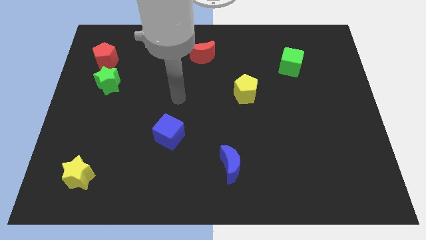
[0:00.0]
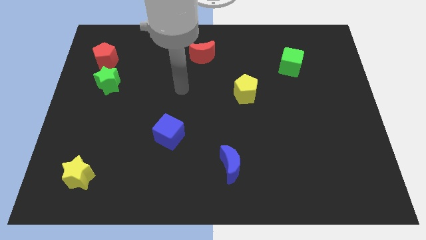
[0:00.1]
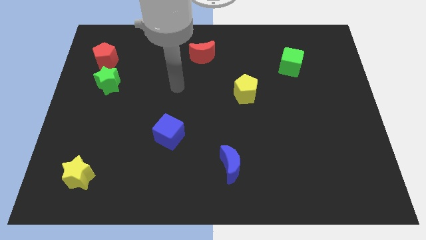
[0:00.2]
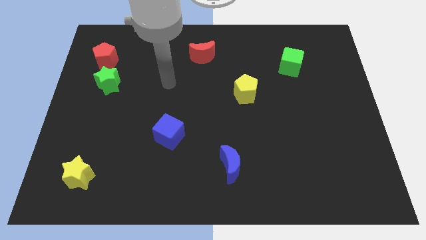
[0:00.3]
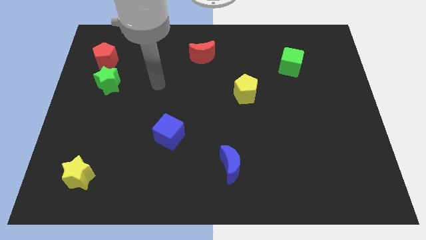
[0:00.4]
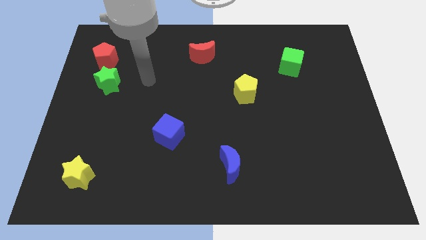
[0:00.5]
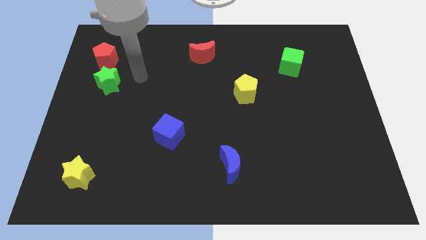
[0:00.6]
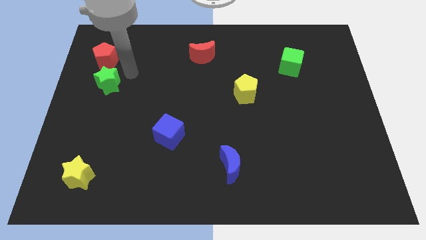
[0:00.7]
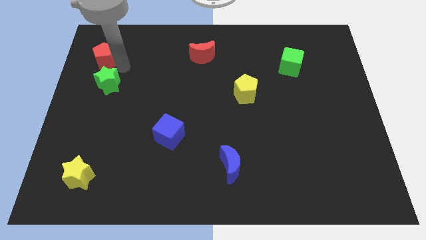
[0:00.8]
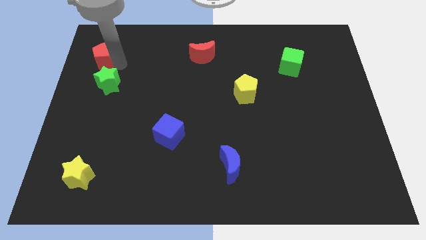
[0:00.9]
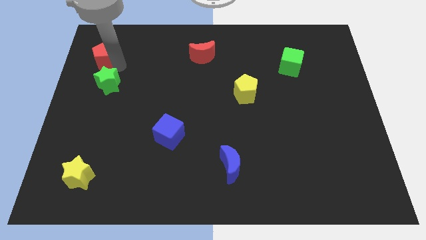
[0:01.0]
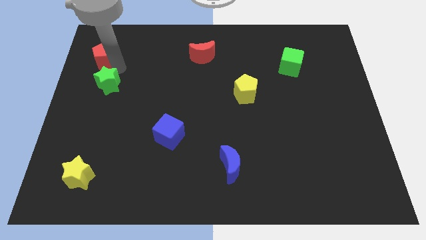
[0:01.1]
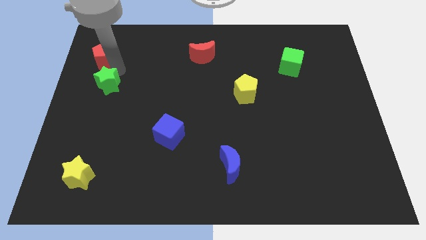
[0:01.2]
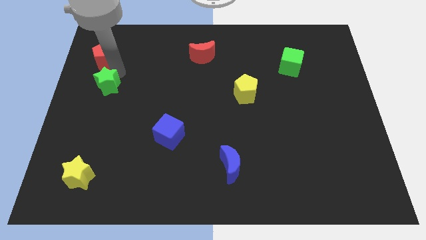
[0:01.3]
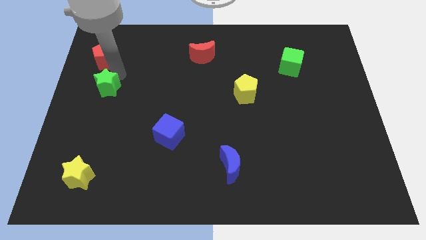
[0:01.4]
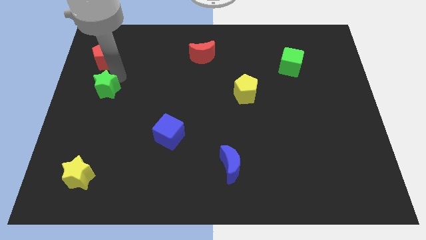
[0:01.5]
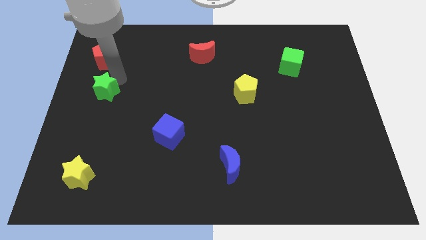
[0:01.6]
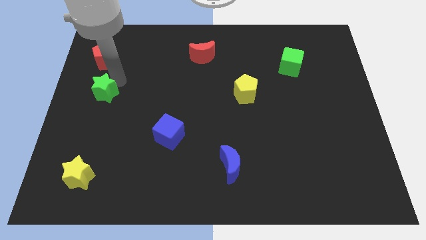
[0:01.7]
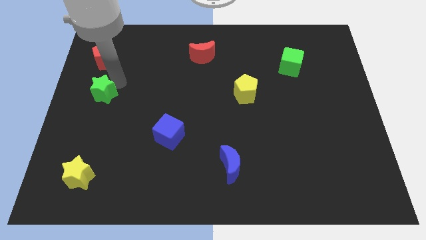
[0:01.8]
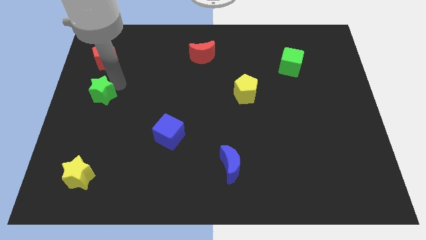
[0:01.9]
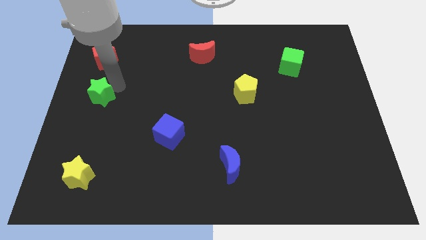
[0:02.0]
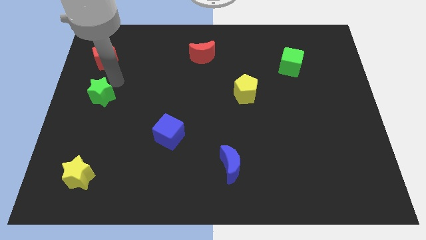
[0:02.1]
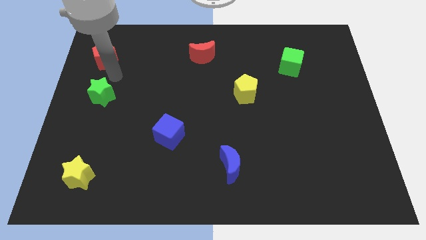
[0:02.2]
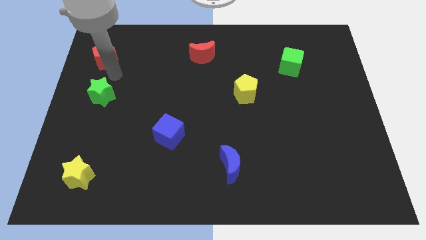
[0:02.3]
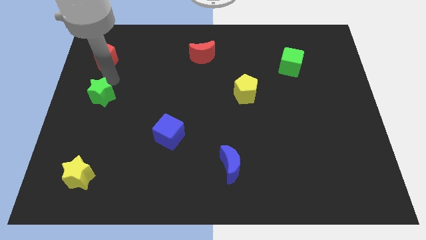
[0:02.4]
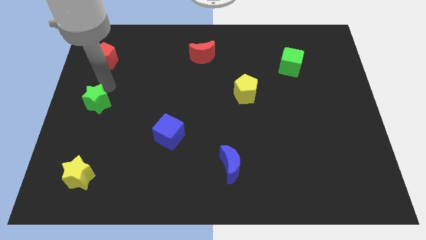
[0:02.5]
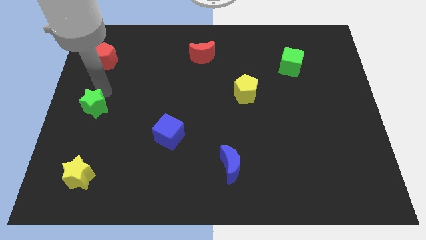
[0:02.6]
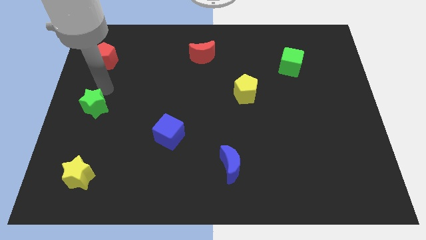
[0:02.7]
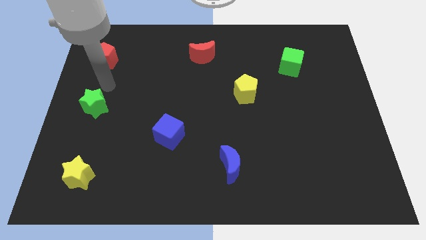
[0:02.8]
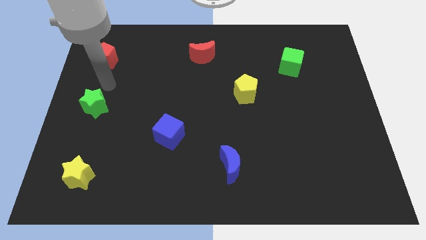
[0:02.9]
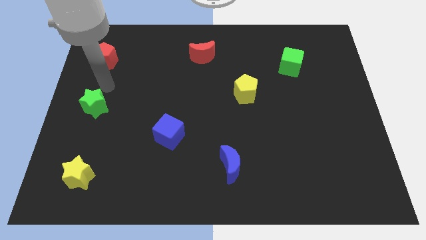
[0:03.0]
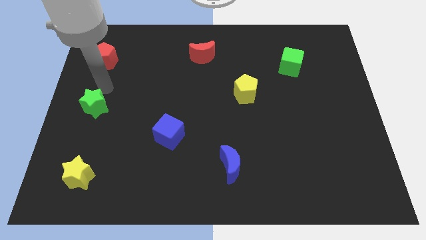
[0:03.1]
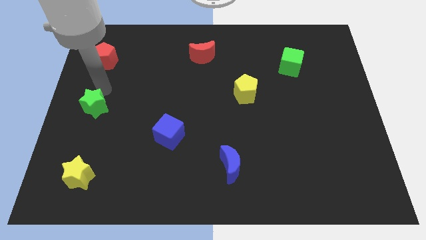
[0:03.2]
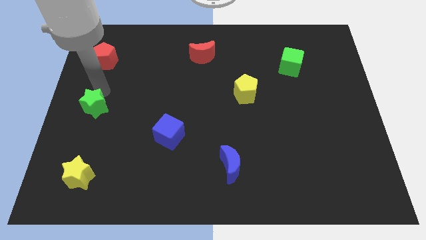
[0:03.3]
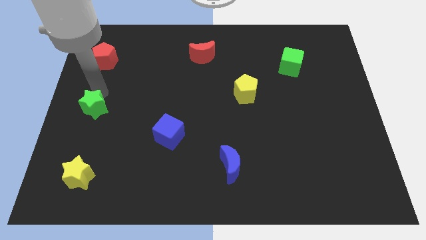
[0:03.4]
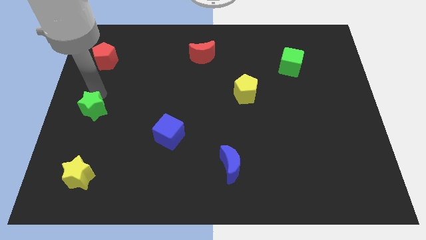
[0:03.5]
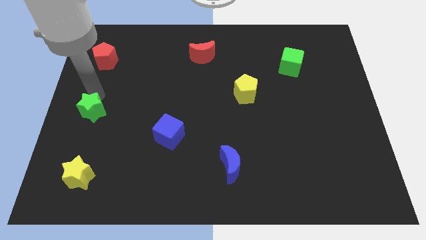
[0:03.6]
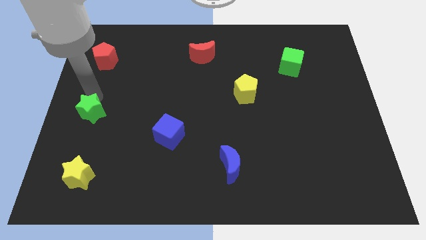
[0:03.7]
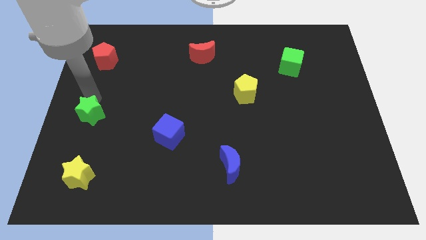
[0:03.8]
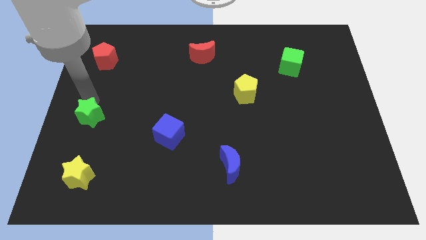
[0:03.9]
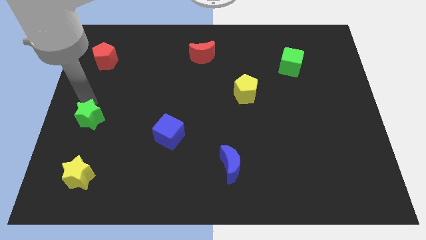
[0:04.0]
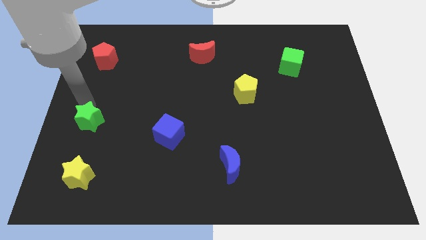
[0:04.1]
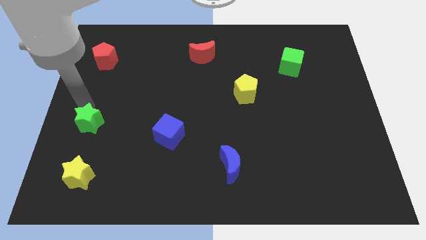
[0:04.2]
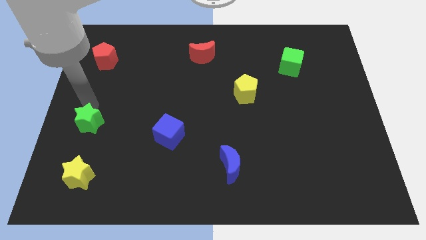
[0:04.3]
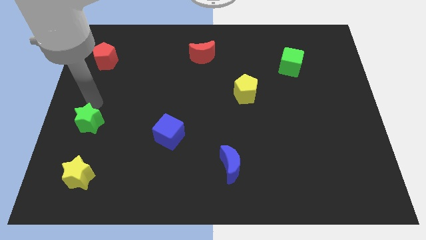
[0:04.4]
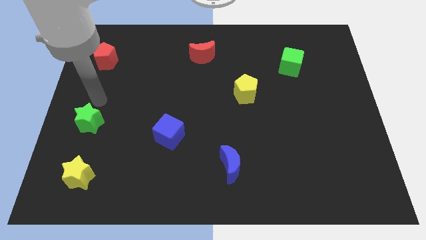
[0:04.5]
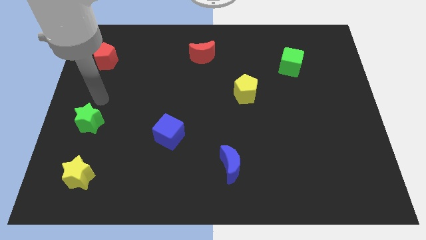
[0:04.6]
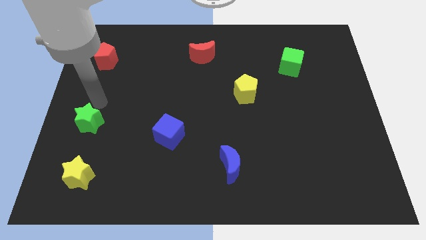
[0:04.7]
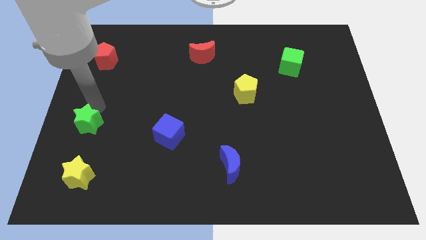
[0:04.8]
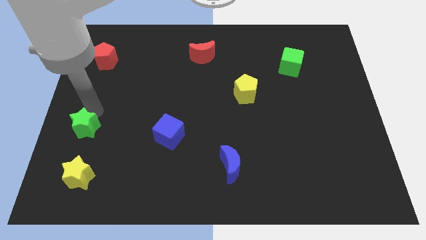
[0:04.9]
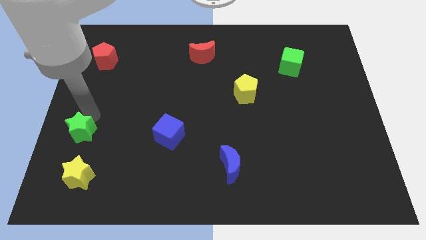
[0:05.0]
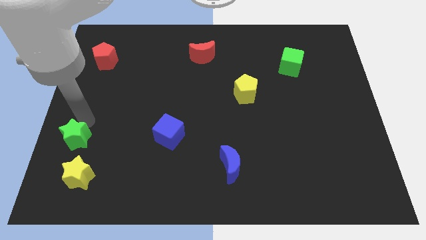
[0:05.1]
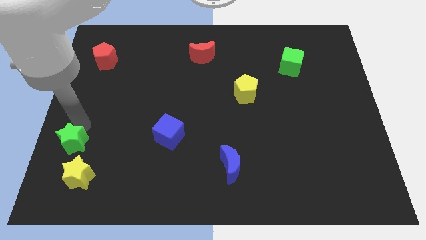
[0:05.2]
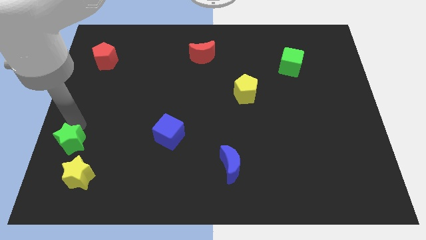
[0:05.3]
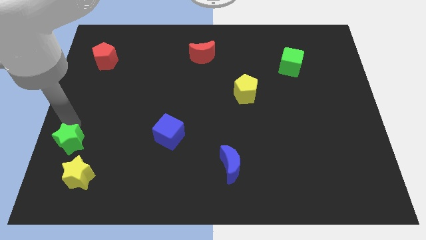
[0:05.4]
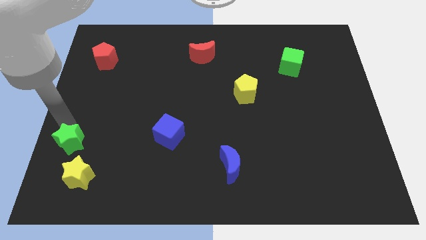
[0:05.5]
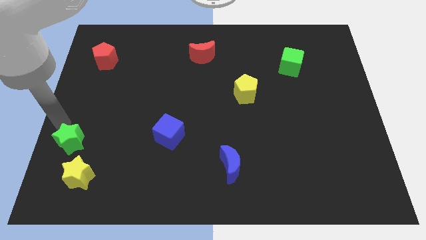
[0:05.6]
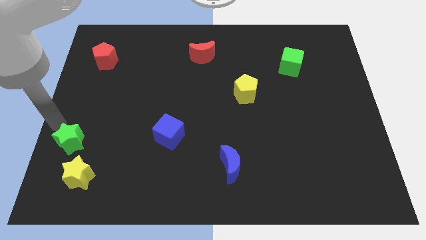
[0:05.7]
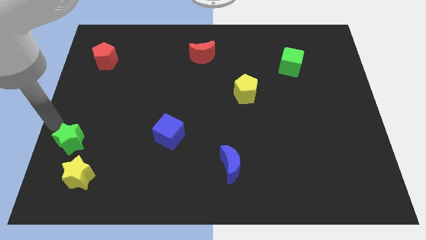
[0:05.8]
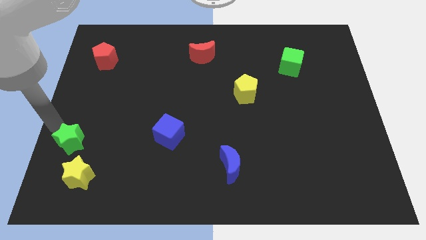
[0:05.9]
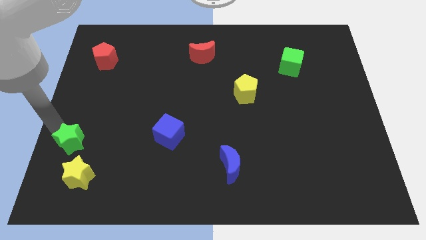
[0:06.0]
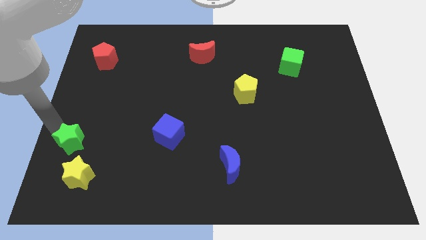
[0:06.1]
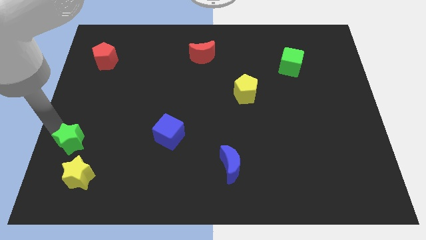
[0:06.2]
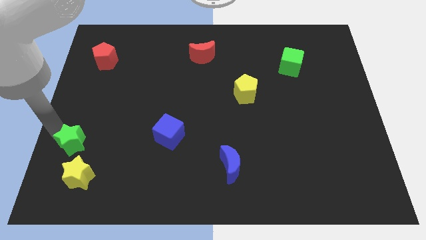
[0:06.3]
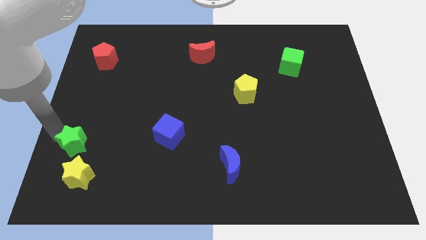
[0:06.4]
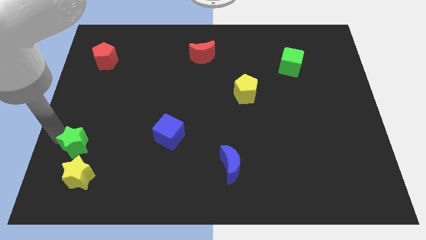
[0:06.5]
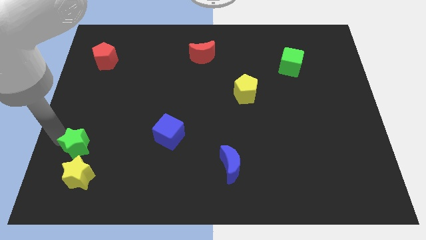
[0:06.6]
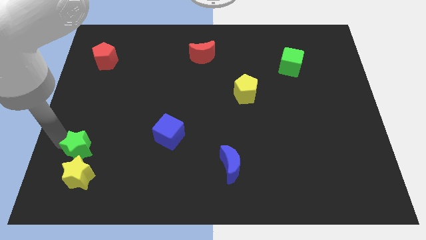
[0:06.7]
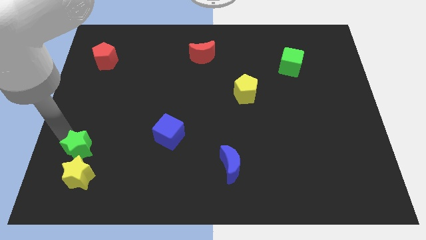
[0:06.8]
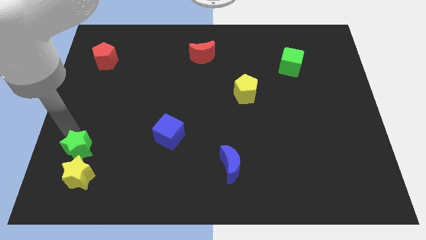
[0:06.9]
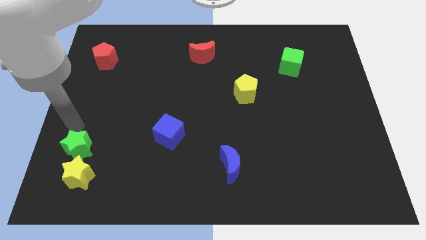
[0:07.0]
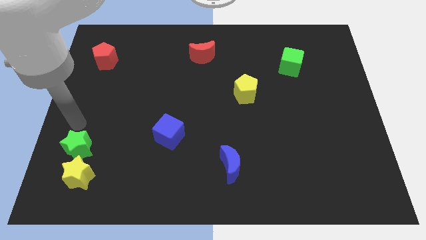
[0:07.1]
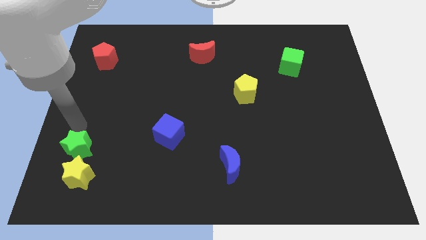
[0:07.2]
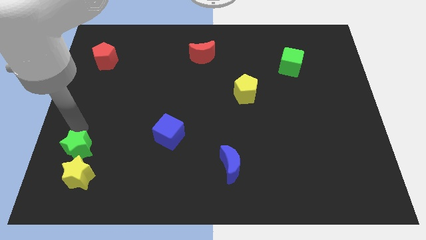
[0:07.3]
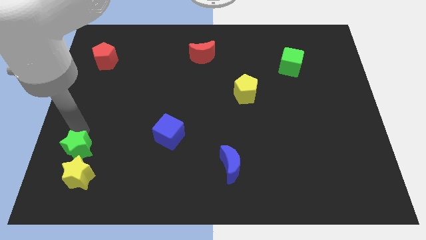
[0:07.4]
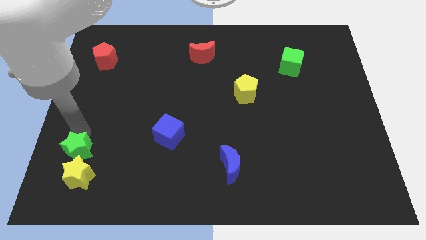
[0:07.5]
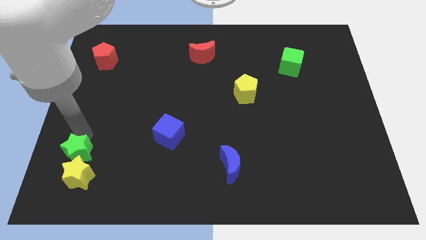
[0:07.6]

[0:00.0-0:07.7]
move the green star close to the yellow star
